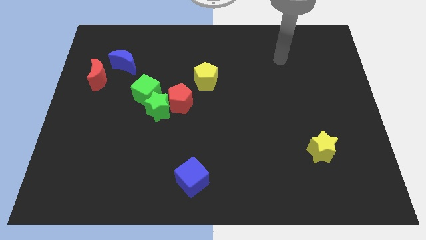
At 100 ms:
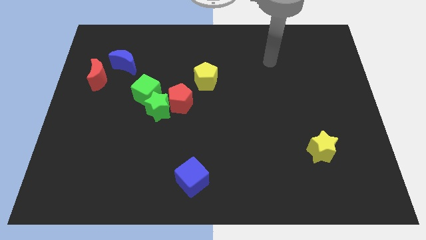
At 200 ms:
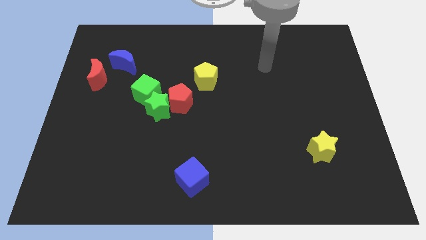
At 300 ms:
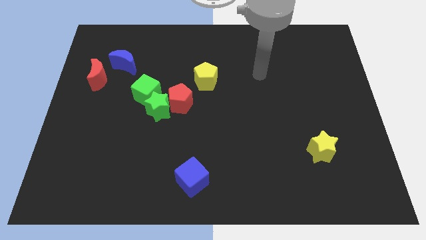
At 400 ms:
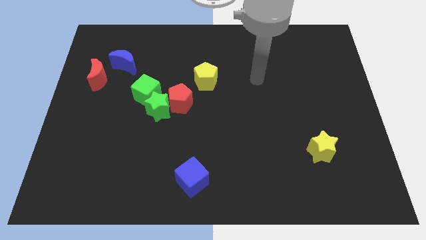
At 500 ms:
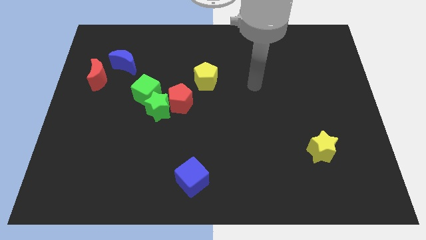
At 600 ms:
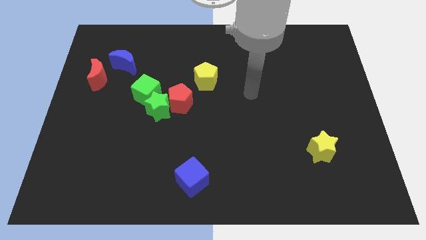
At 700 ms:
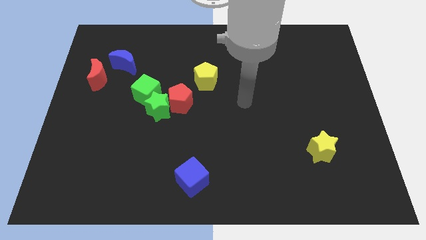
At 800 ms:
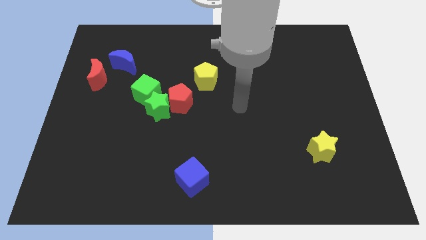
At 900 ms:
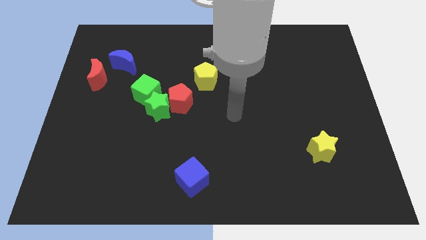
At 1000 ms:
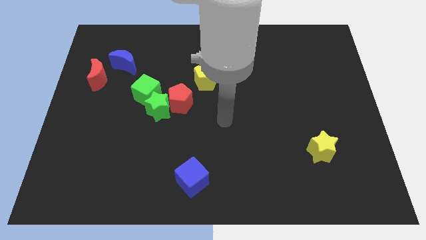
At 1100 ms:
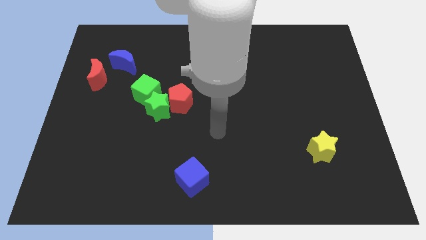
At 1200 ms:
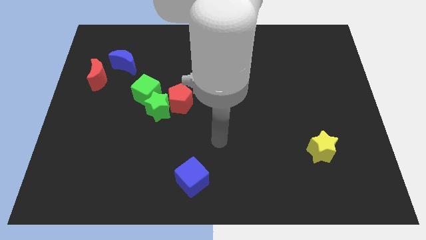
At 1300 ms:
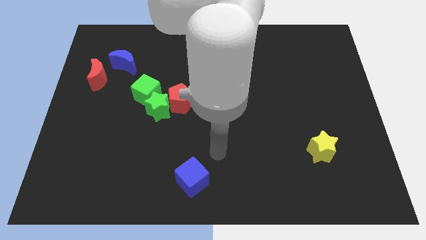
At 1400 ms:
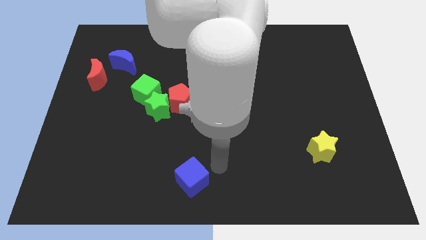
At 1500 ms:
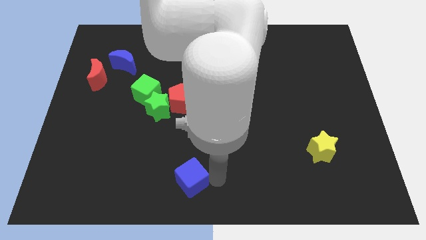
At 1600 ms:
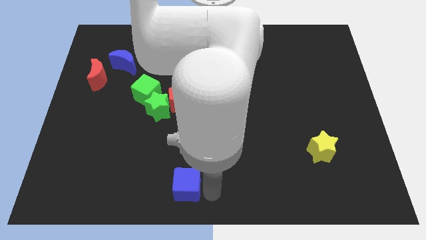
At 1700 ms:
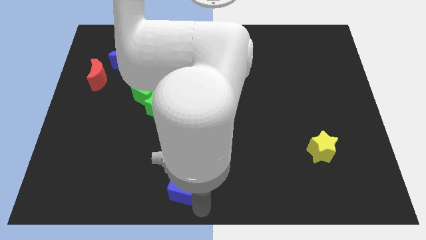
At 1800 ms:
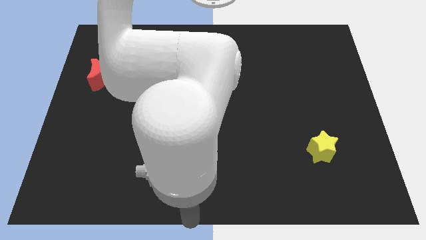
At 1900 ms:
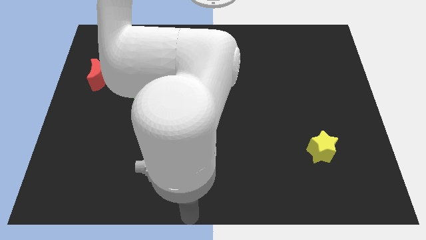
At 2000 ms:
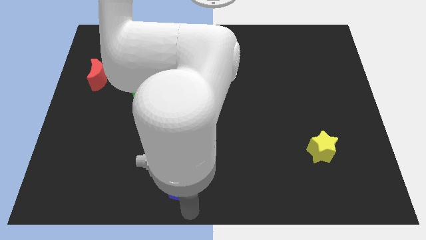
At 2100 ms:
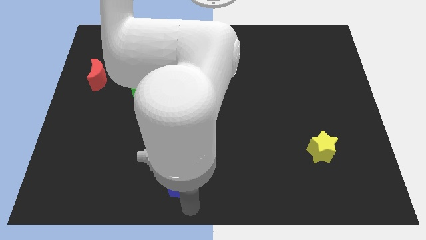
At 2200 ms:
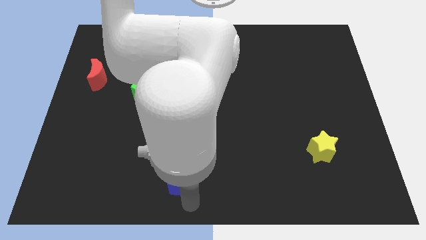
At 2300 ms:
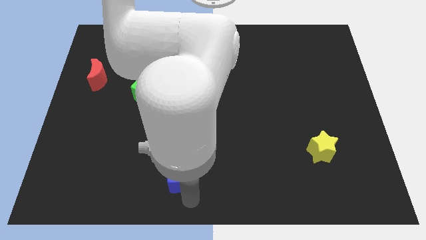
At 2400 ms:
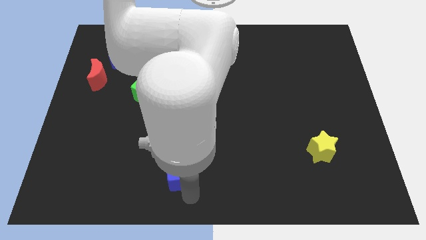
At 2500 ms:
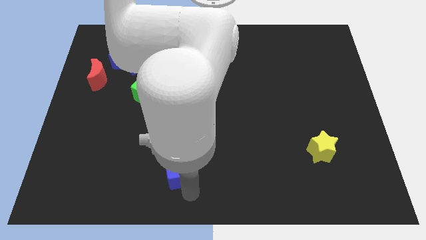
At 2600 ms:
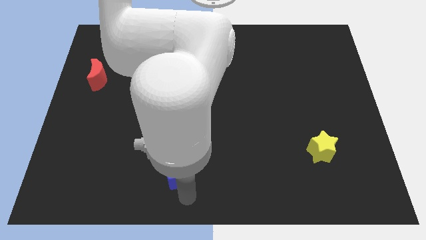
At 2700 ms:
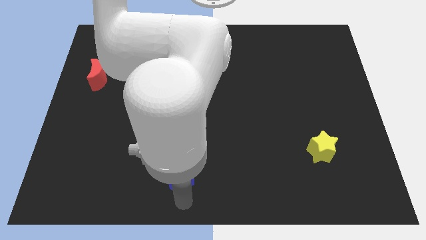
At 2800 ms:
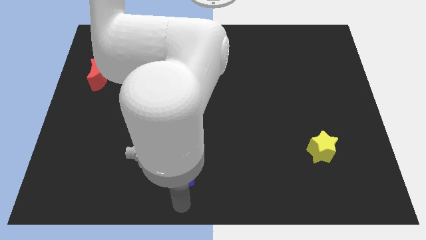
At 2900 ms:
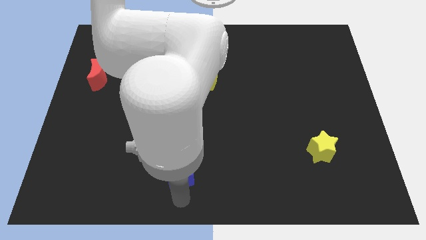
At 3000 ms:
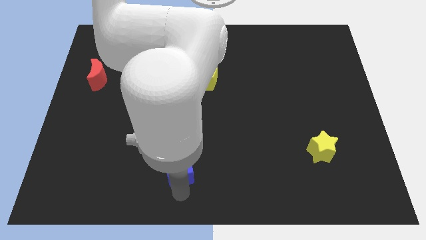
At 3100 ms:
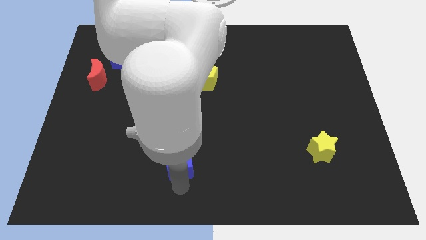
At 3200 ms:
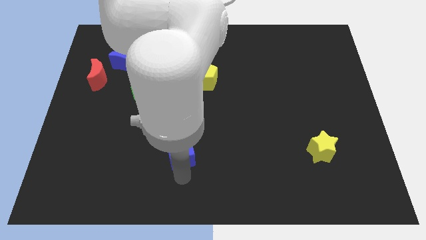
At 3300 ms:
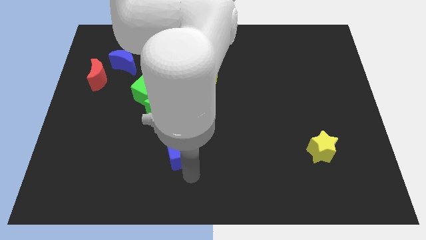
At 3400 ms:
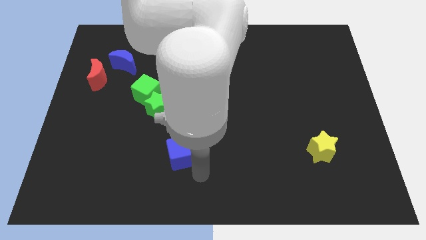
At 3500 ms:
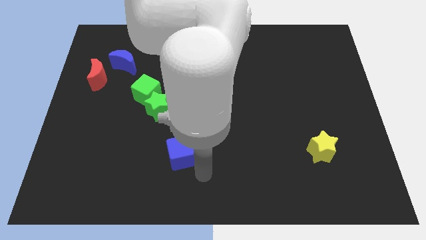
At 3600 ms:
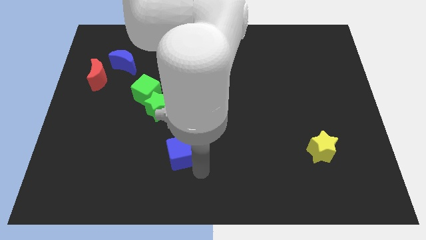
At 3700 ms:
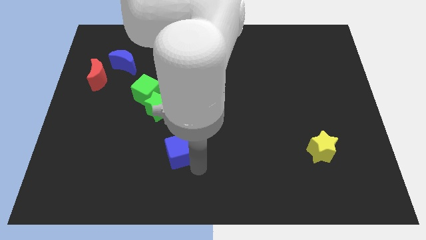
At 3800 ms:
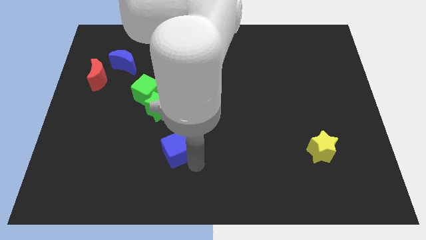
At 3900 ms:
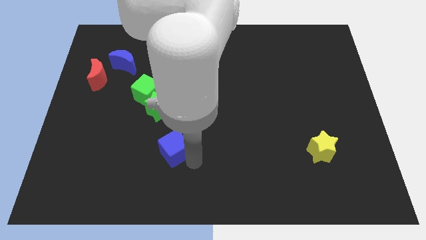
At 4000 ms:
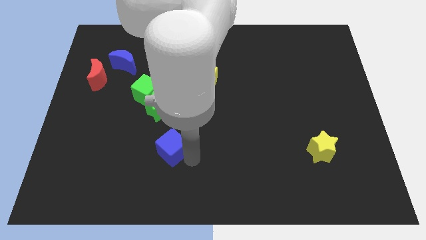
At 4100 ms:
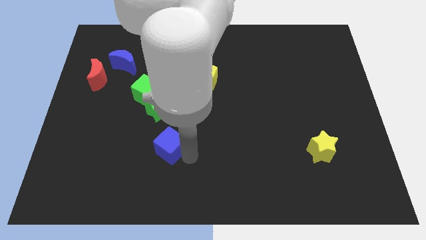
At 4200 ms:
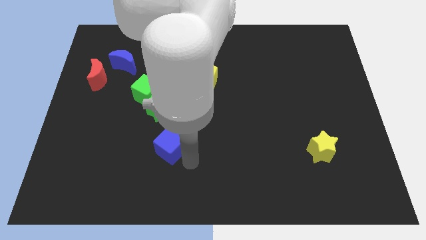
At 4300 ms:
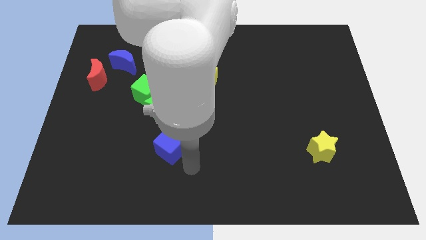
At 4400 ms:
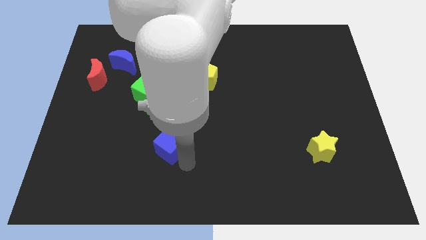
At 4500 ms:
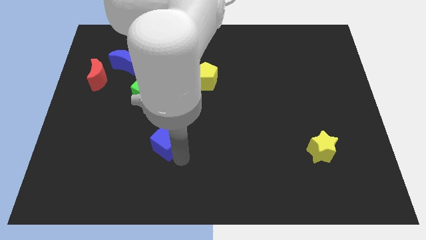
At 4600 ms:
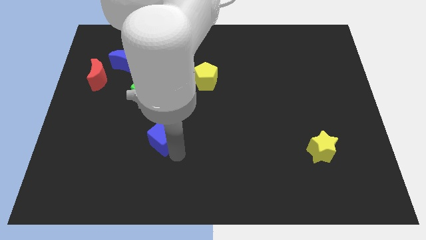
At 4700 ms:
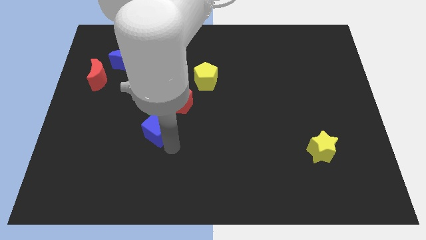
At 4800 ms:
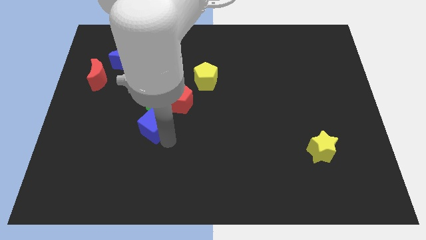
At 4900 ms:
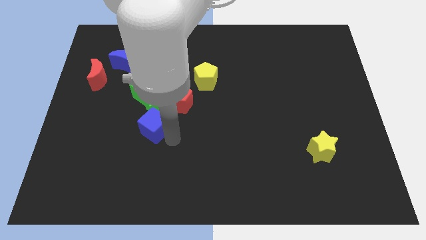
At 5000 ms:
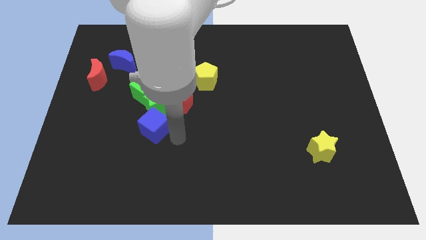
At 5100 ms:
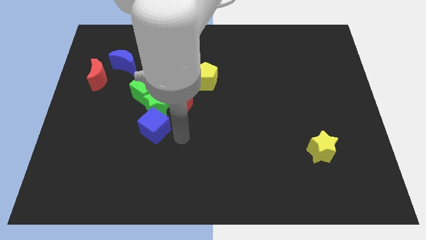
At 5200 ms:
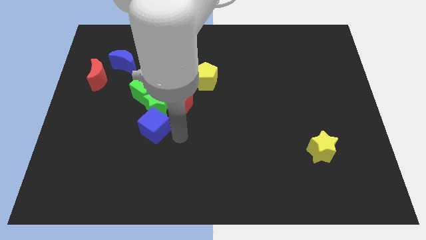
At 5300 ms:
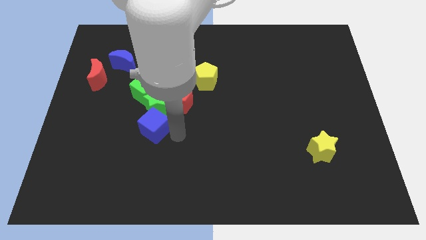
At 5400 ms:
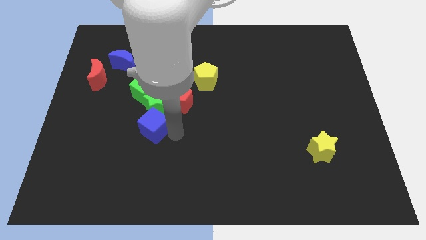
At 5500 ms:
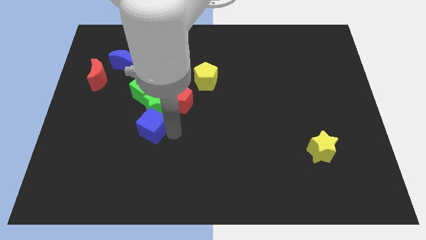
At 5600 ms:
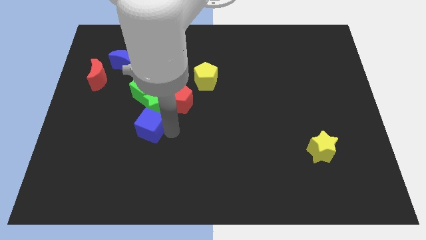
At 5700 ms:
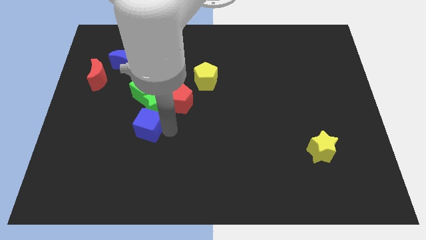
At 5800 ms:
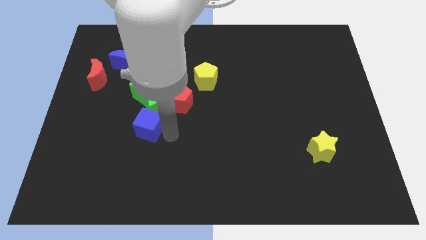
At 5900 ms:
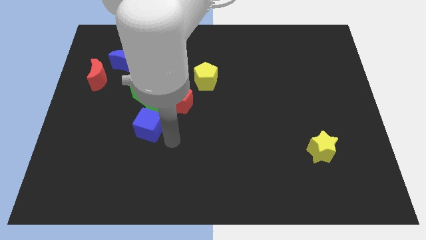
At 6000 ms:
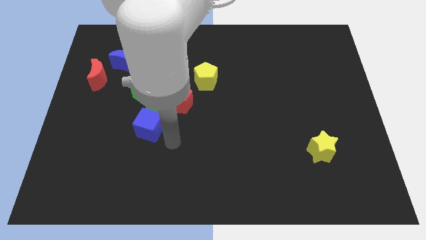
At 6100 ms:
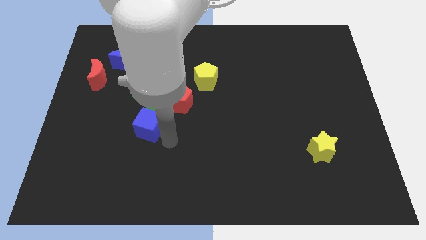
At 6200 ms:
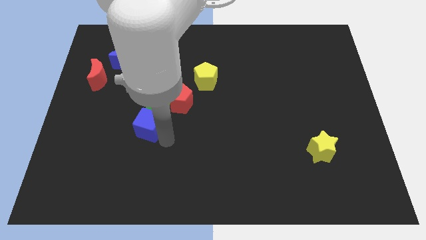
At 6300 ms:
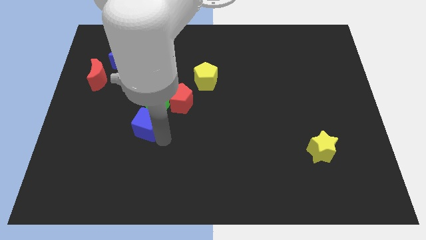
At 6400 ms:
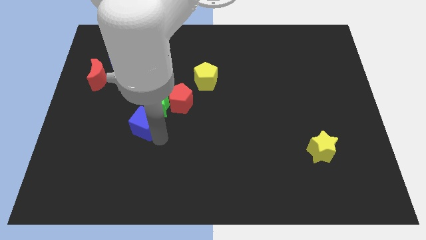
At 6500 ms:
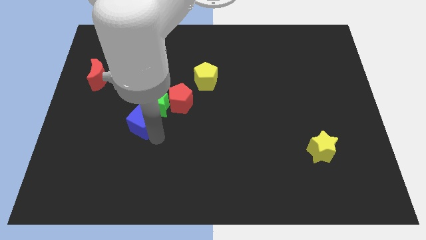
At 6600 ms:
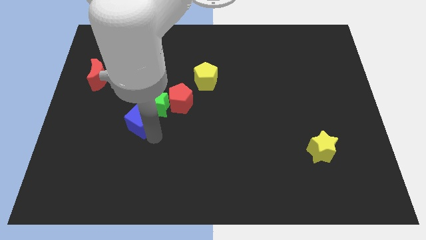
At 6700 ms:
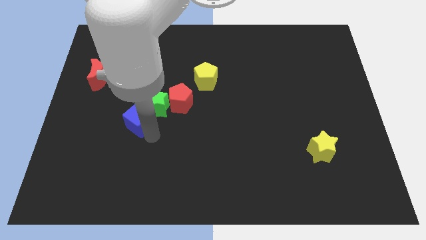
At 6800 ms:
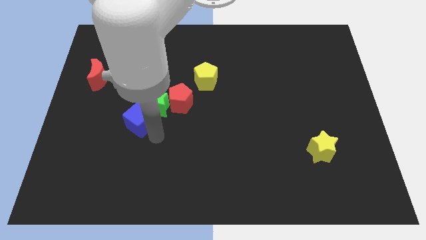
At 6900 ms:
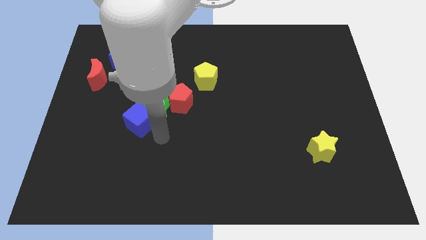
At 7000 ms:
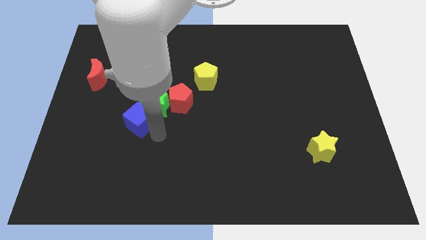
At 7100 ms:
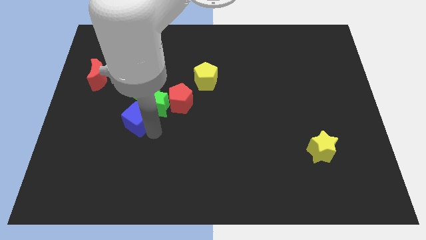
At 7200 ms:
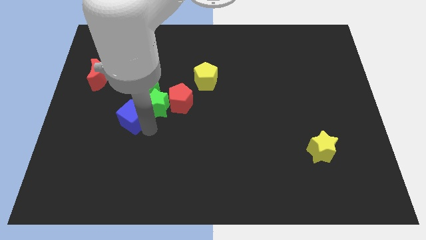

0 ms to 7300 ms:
push the blue cube diagonally up and left

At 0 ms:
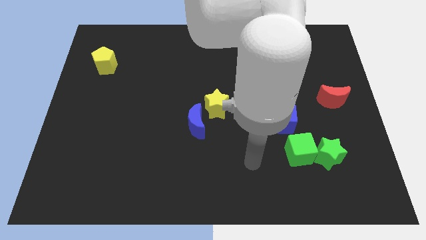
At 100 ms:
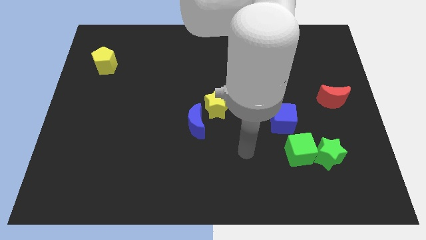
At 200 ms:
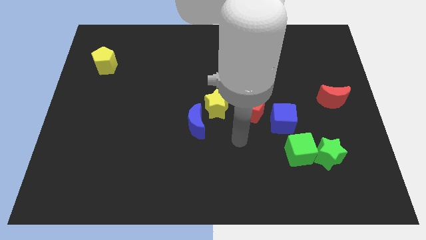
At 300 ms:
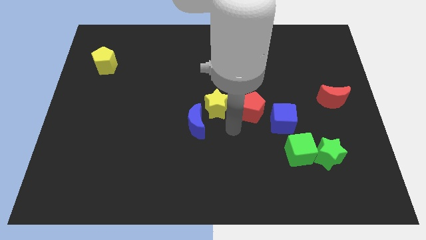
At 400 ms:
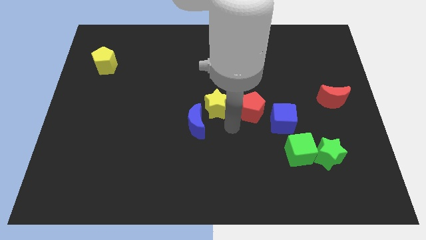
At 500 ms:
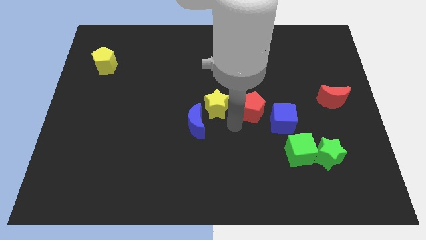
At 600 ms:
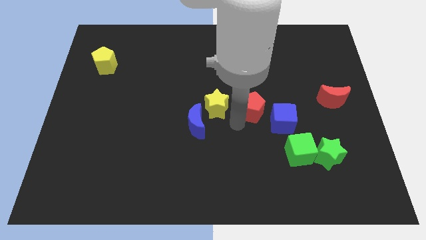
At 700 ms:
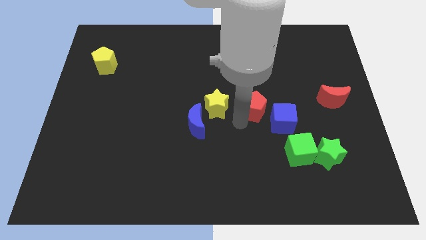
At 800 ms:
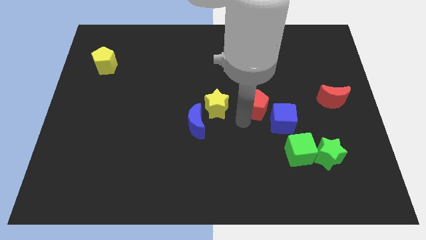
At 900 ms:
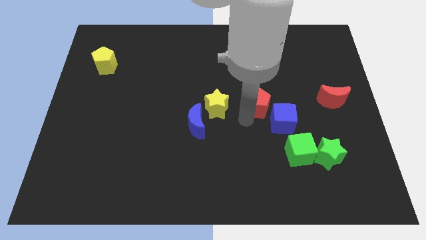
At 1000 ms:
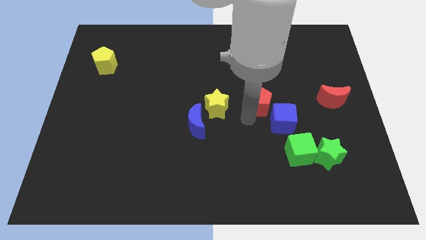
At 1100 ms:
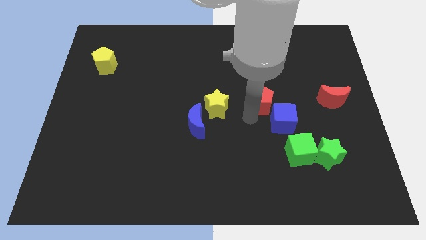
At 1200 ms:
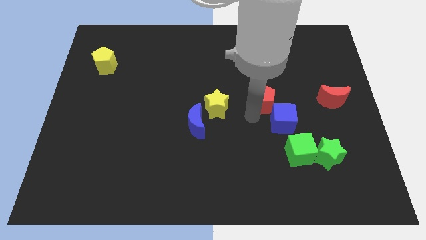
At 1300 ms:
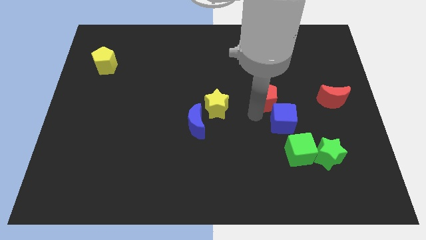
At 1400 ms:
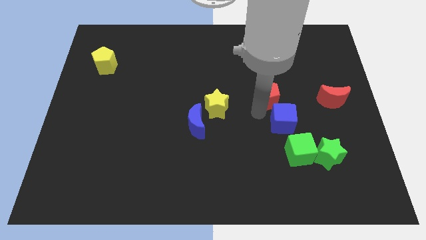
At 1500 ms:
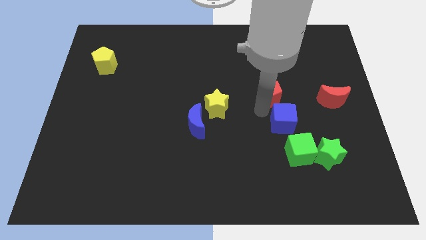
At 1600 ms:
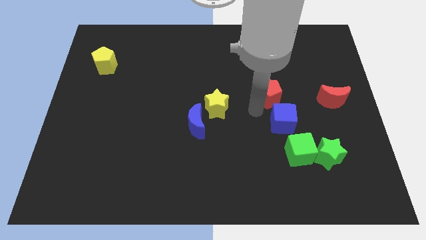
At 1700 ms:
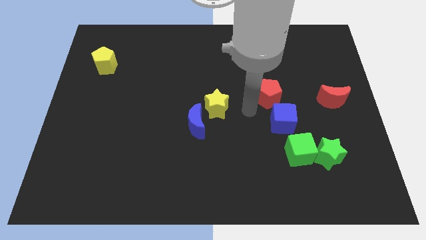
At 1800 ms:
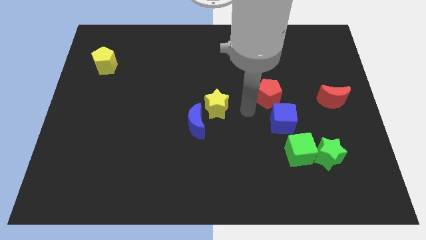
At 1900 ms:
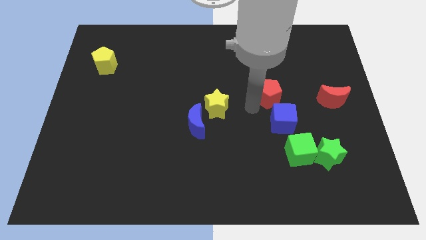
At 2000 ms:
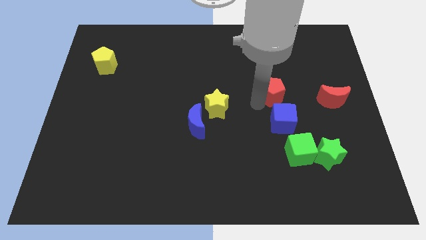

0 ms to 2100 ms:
slightly slide the red pentagon up and to the right diagonally
